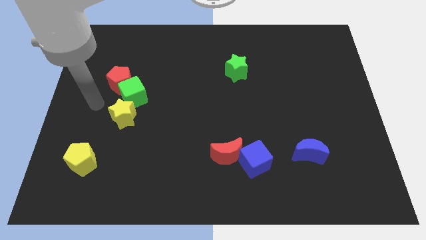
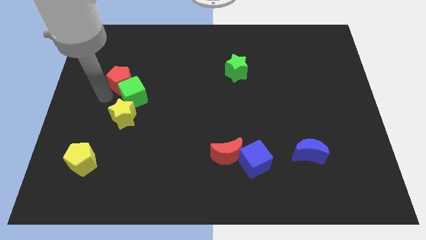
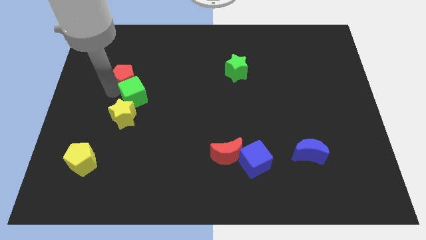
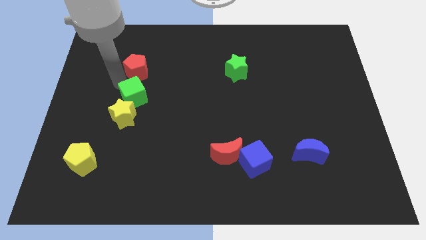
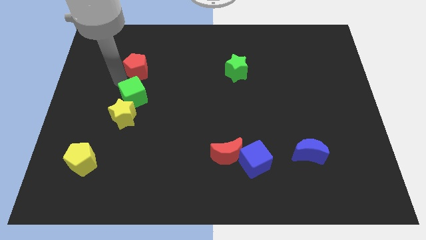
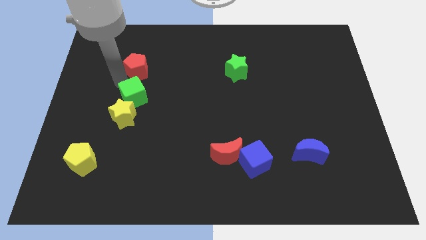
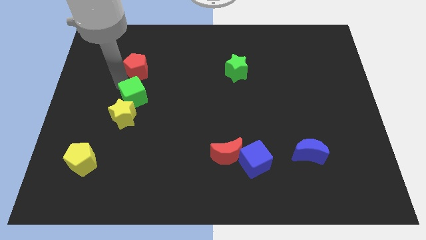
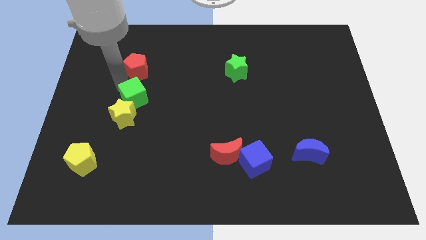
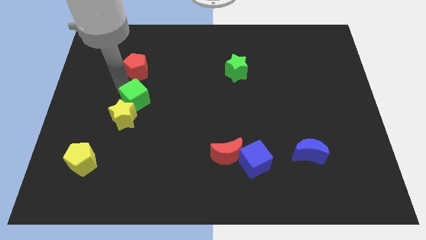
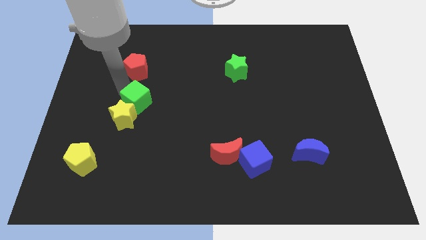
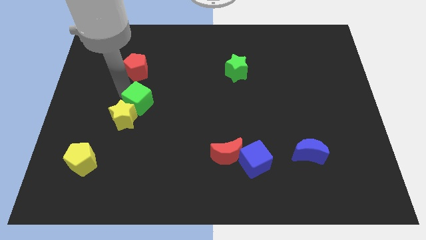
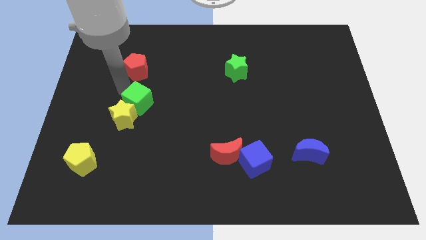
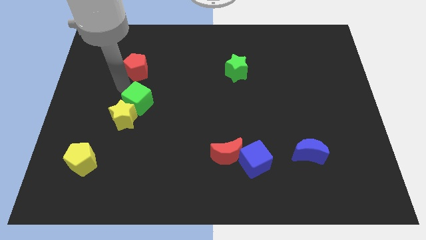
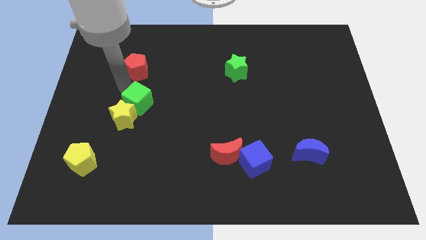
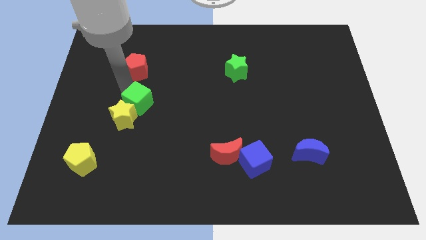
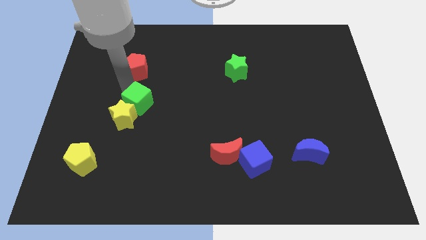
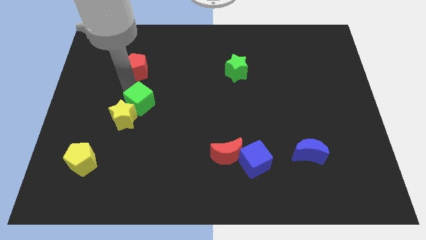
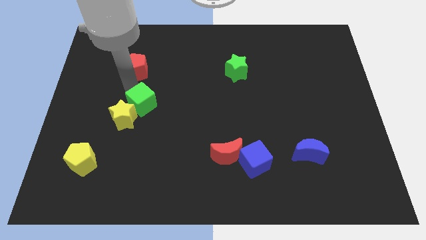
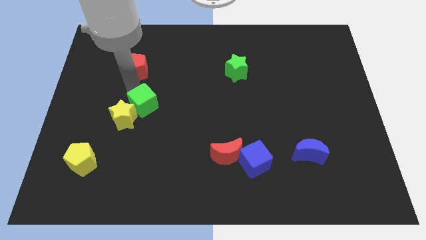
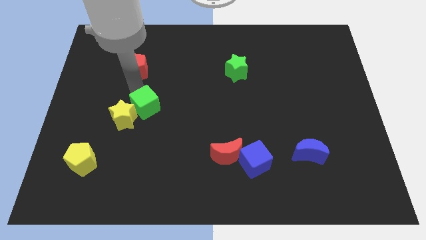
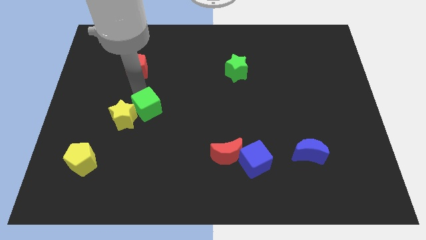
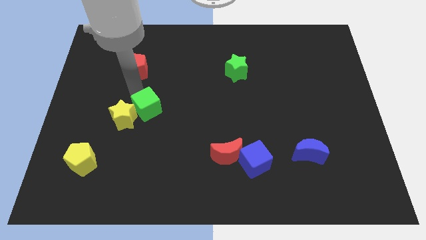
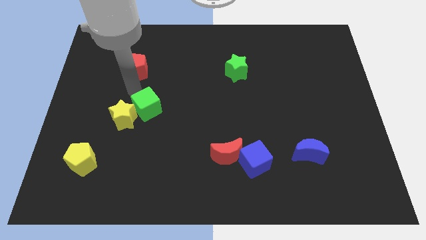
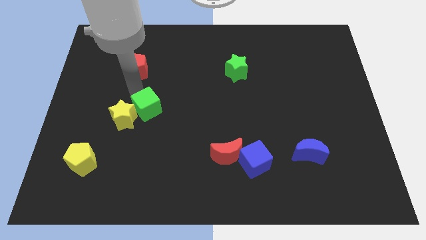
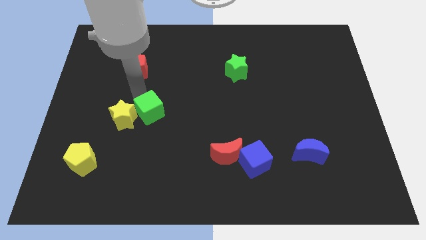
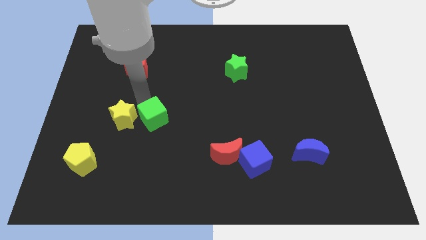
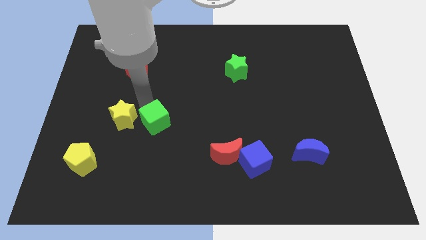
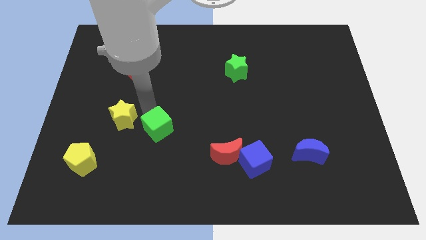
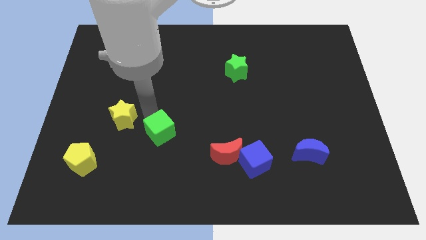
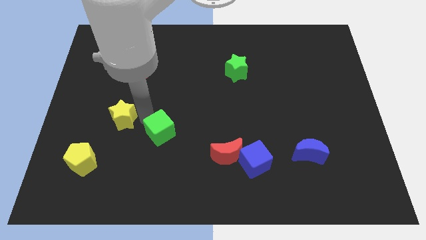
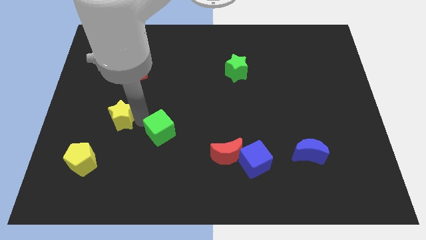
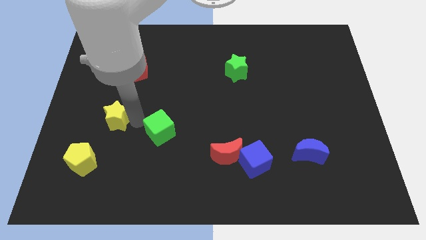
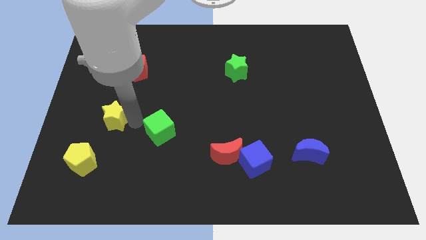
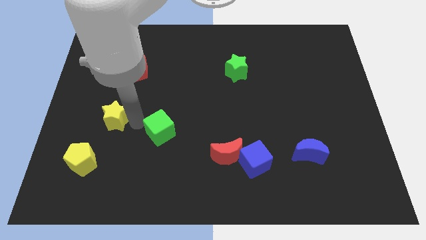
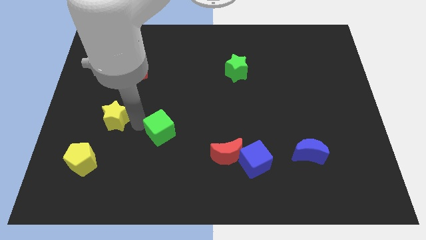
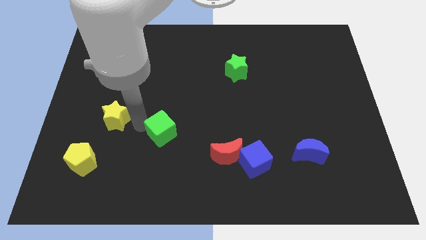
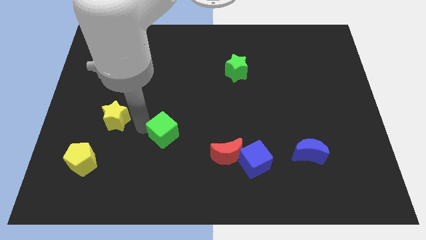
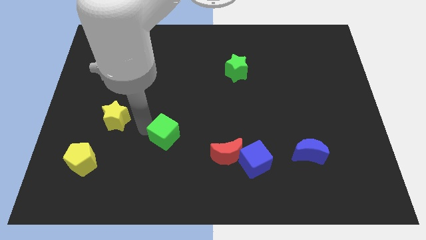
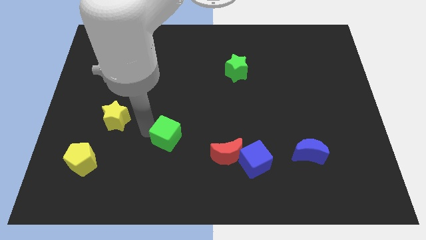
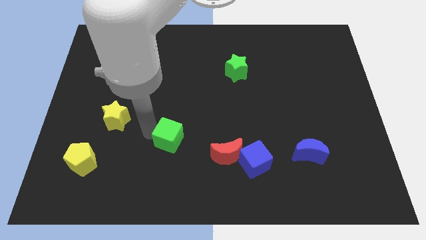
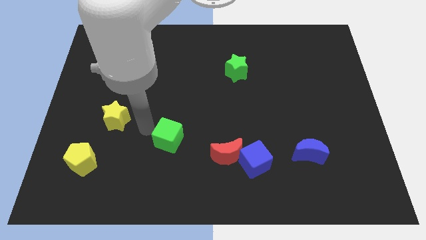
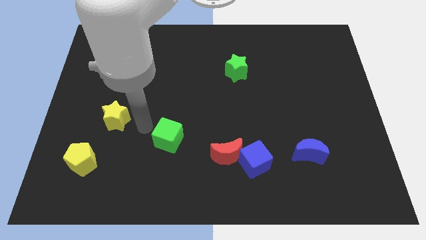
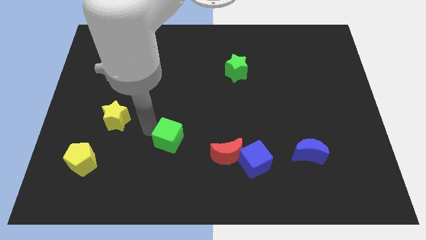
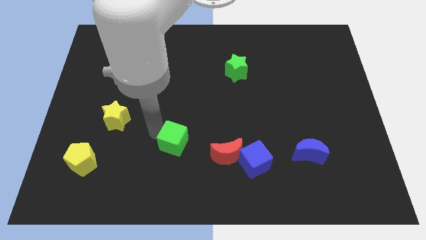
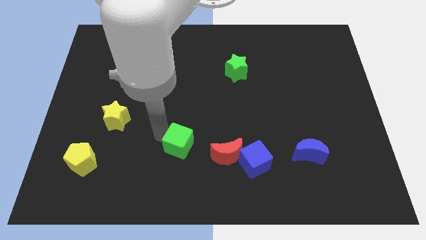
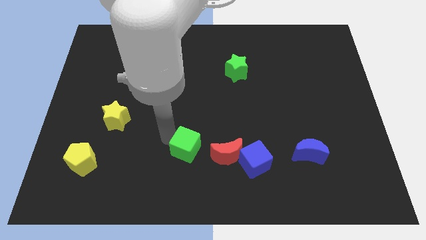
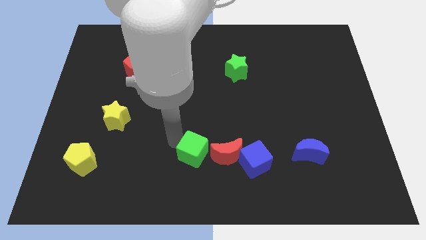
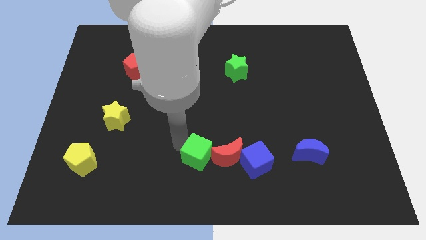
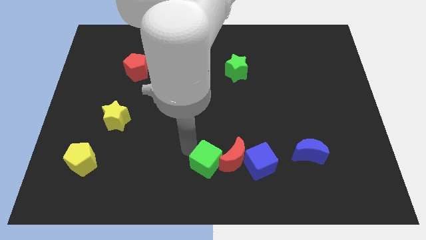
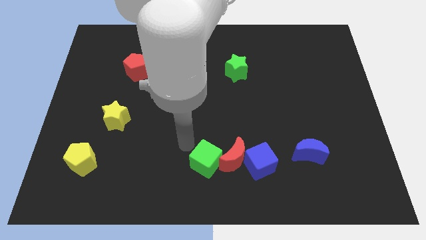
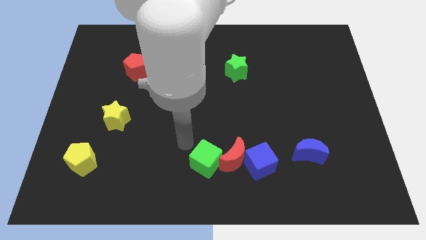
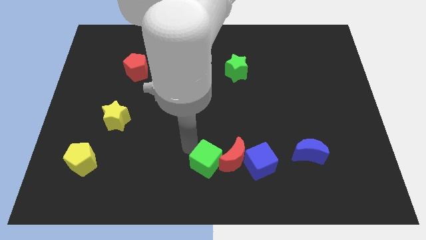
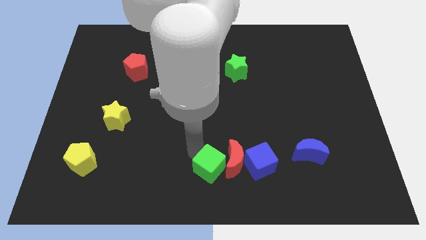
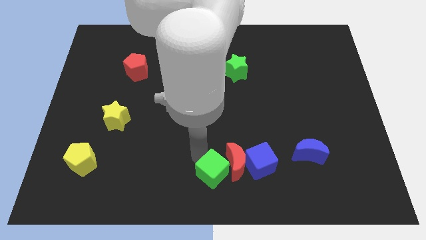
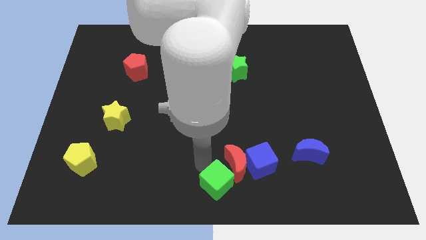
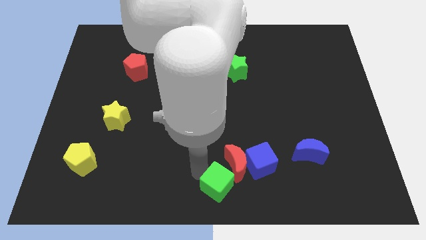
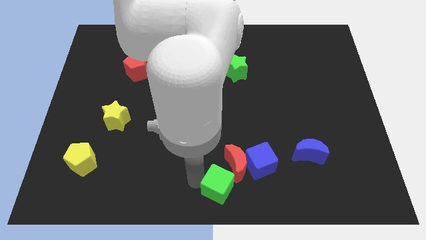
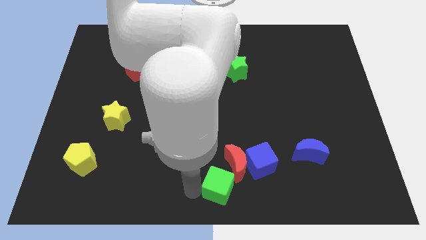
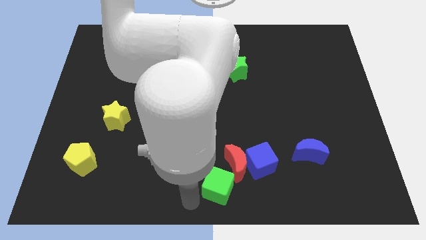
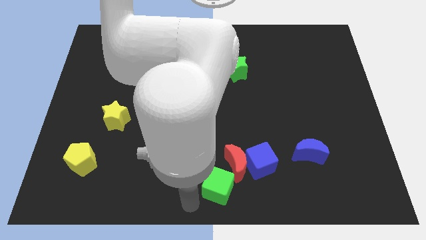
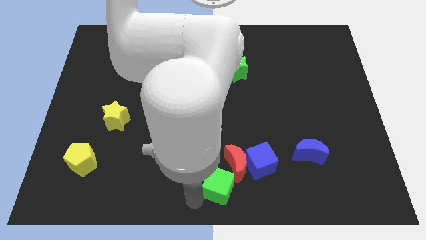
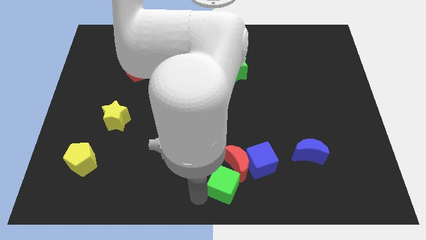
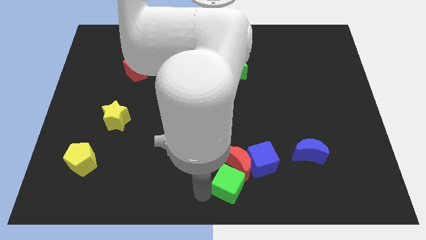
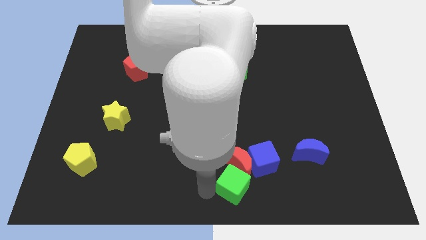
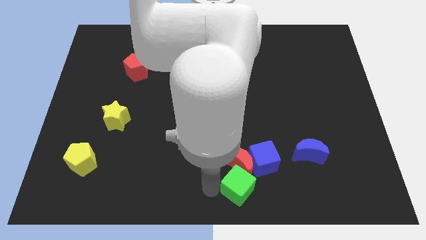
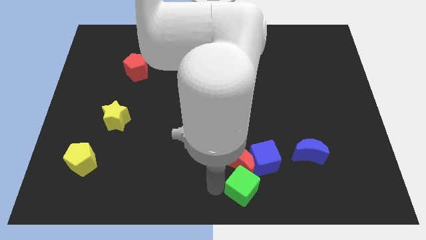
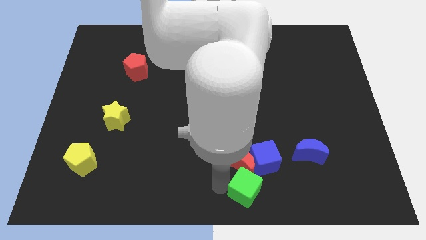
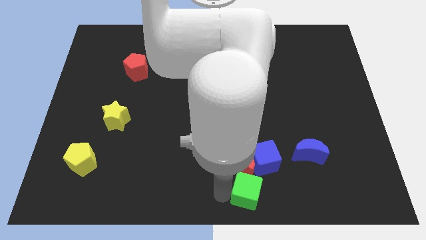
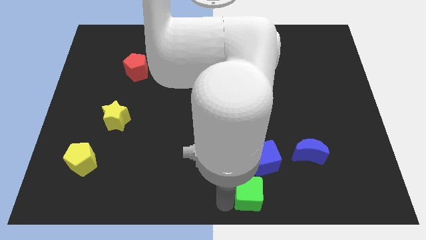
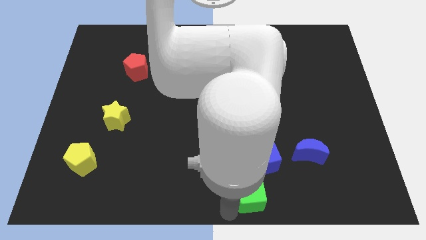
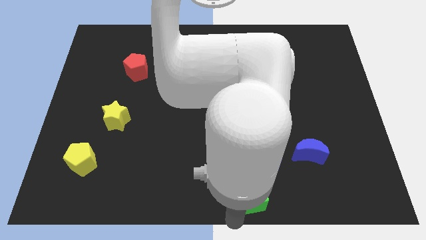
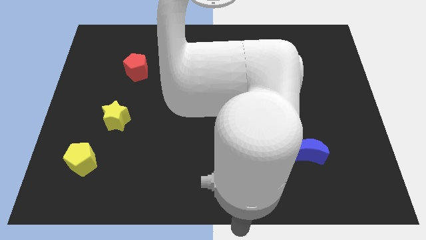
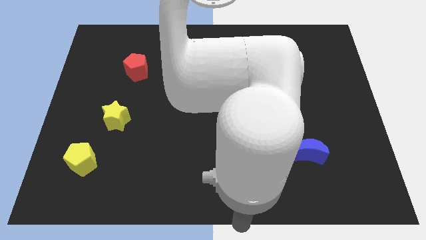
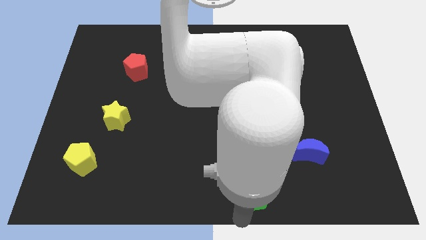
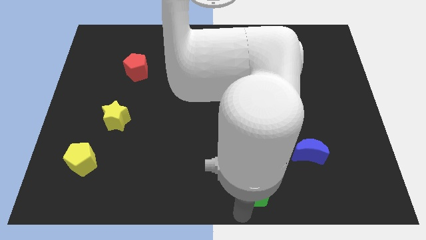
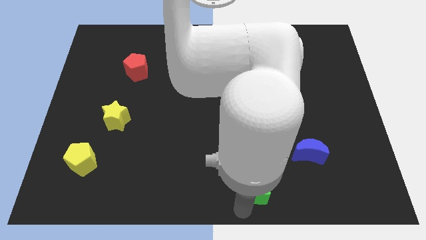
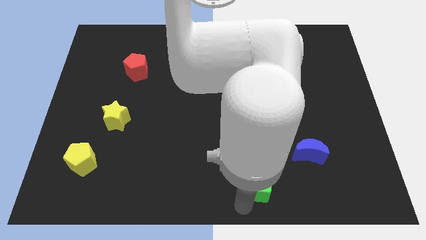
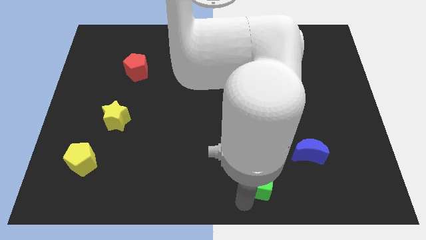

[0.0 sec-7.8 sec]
slide the green cube close to the blue cube
